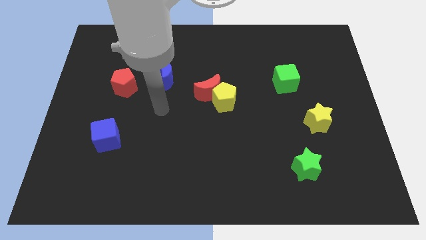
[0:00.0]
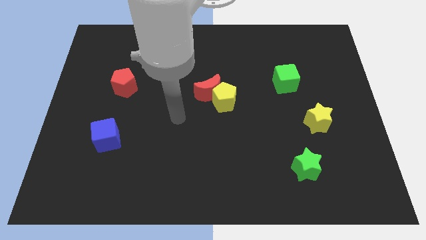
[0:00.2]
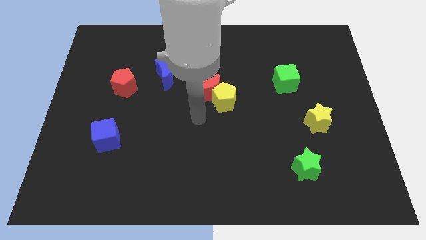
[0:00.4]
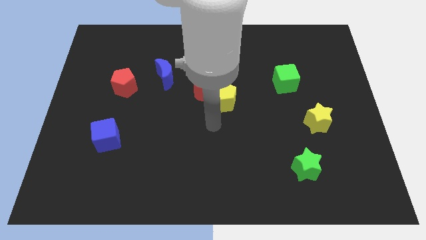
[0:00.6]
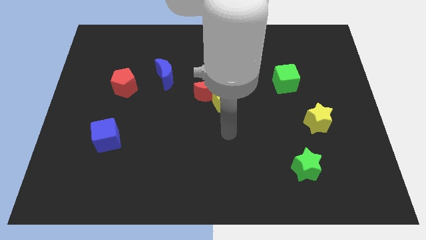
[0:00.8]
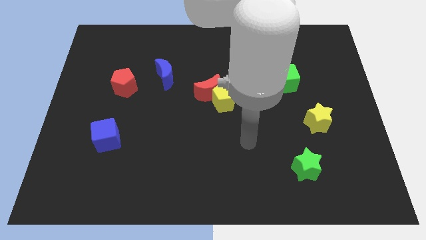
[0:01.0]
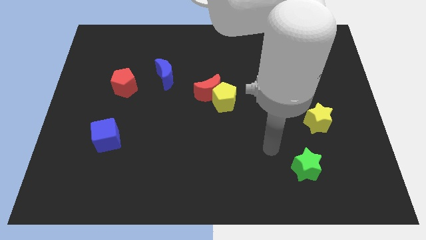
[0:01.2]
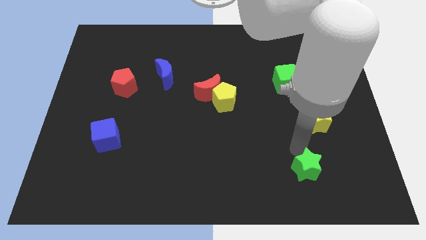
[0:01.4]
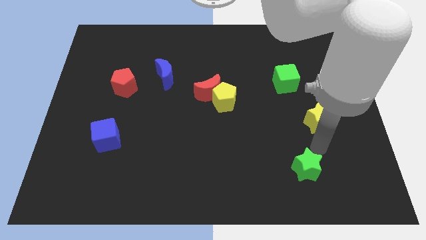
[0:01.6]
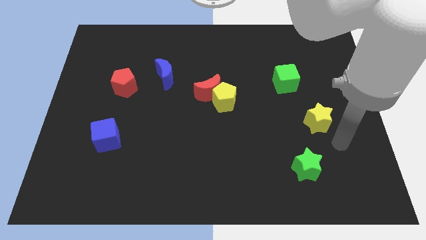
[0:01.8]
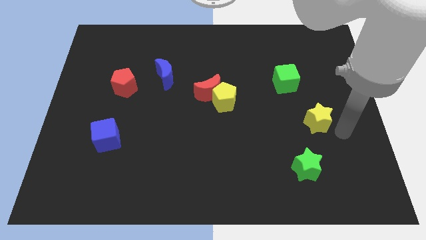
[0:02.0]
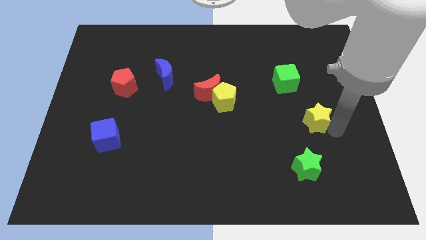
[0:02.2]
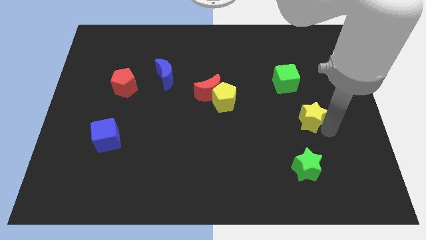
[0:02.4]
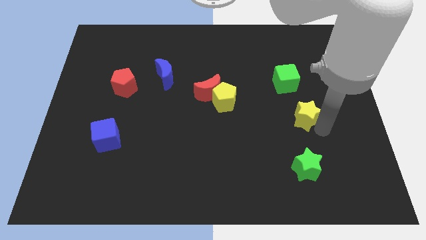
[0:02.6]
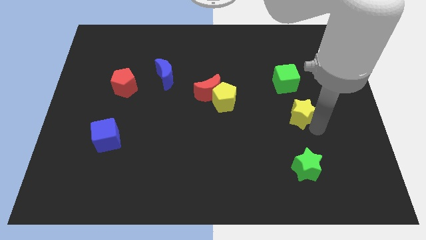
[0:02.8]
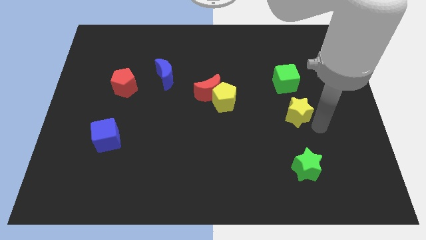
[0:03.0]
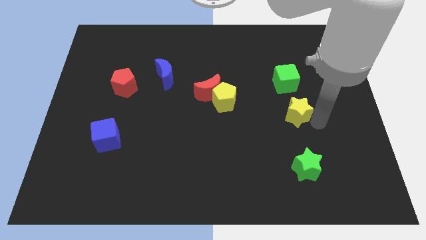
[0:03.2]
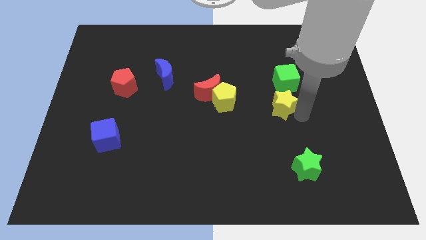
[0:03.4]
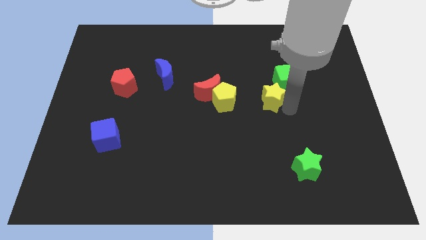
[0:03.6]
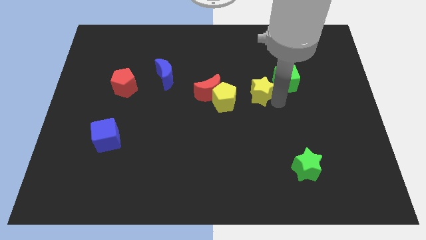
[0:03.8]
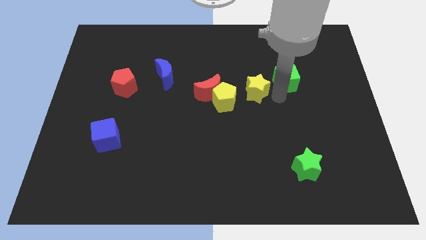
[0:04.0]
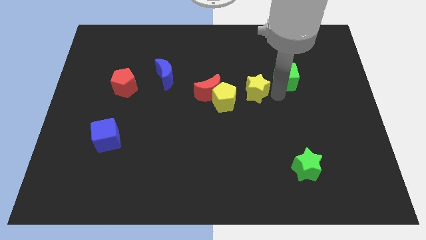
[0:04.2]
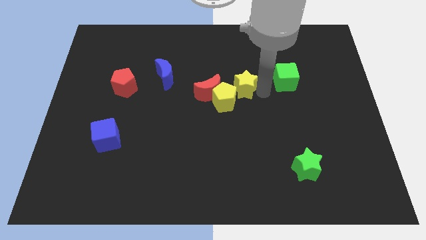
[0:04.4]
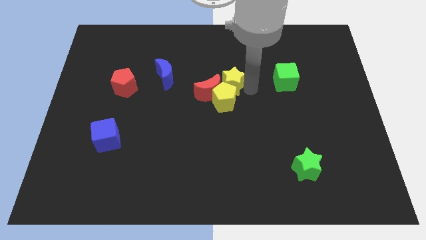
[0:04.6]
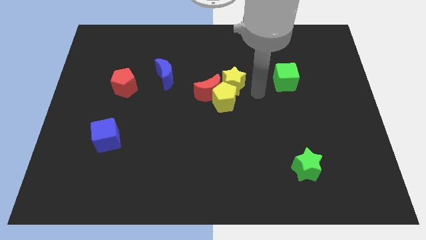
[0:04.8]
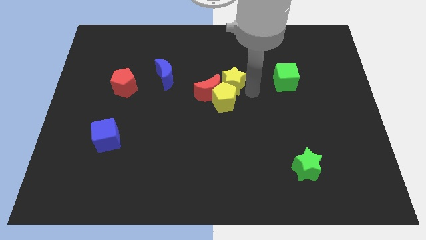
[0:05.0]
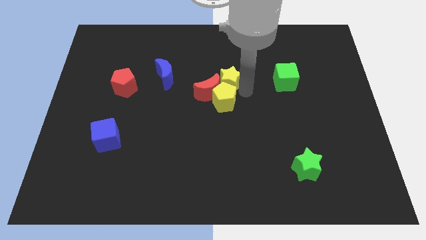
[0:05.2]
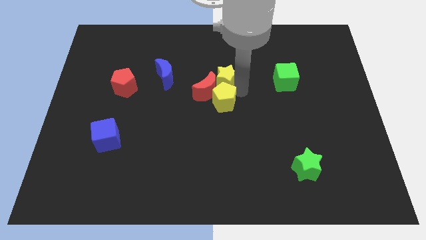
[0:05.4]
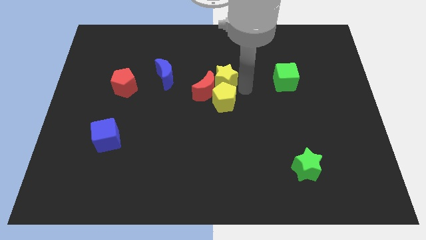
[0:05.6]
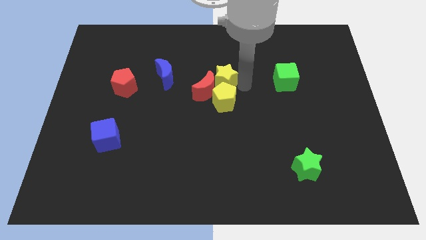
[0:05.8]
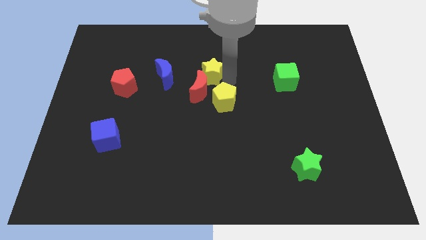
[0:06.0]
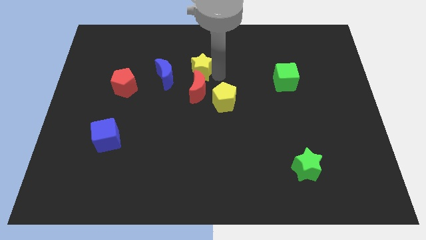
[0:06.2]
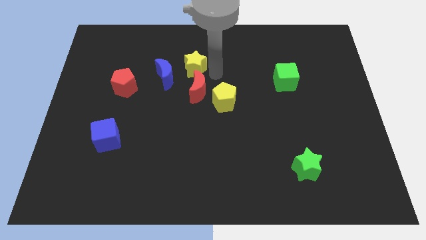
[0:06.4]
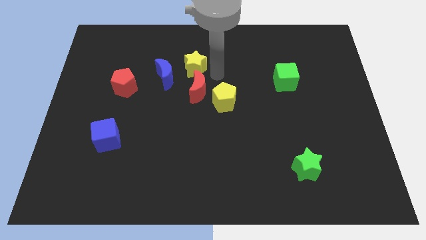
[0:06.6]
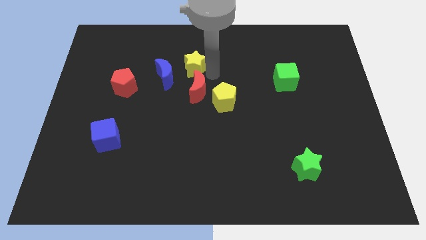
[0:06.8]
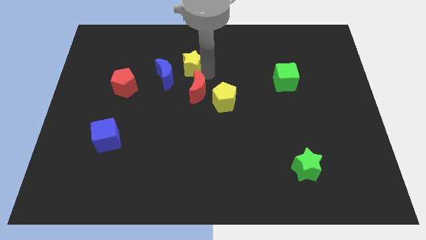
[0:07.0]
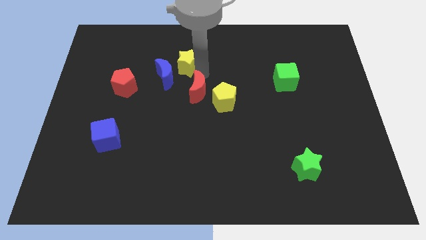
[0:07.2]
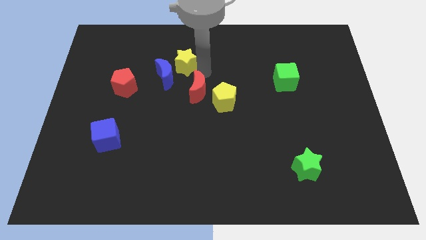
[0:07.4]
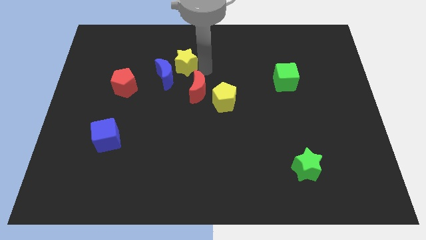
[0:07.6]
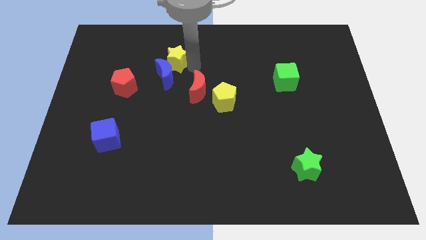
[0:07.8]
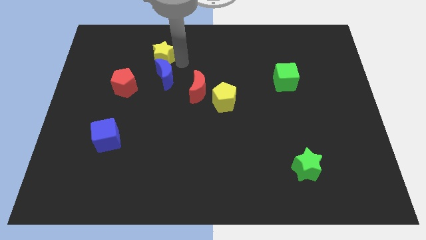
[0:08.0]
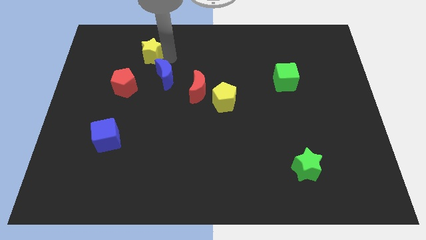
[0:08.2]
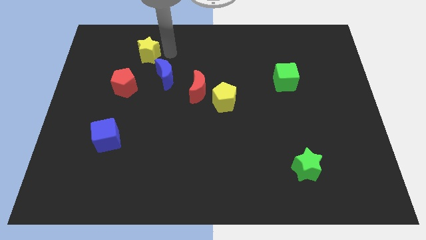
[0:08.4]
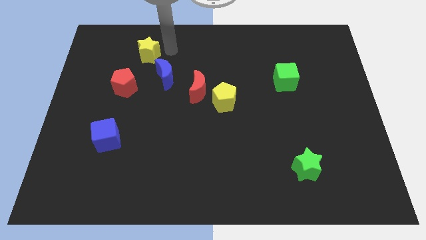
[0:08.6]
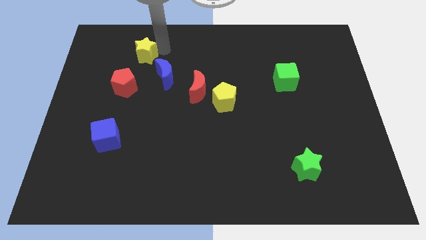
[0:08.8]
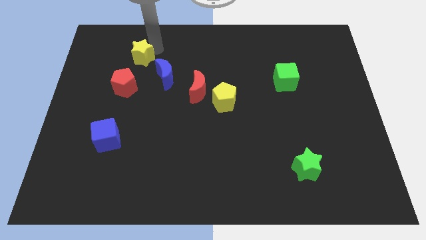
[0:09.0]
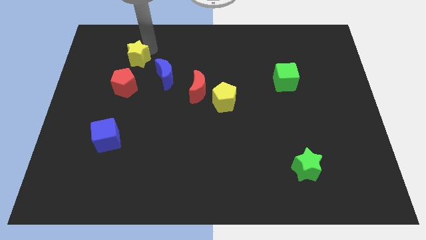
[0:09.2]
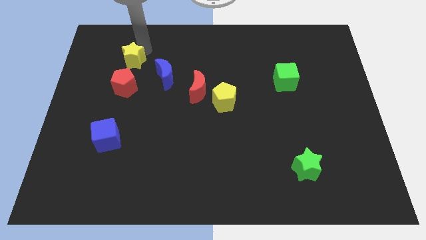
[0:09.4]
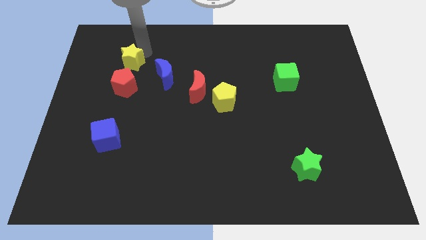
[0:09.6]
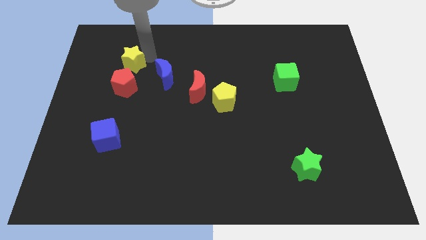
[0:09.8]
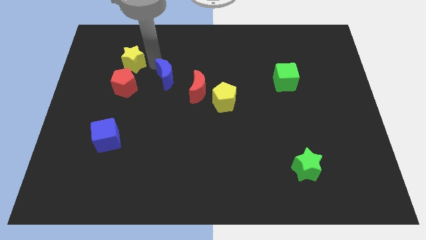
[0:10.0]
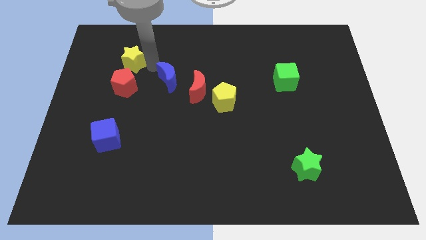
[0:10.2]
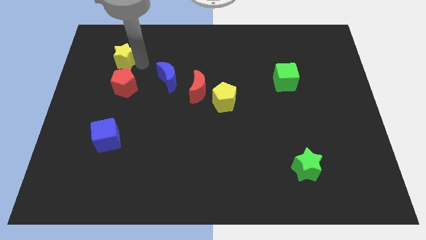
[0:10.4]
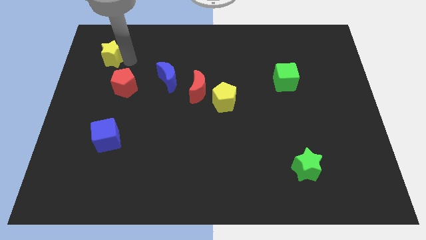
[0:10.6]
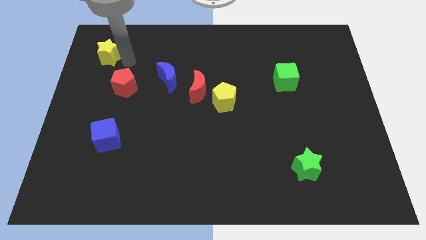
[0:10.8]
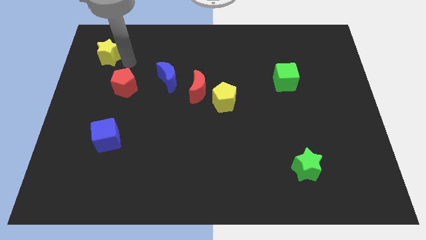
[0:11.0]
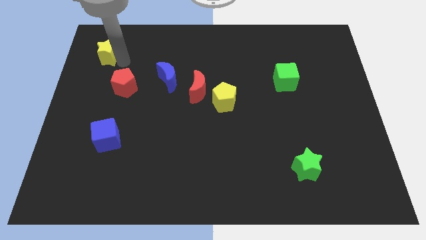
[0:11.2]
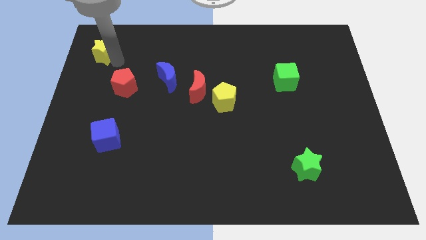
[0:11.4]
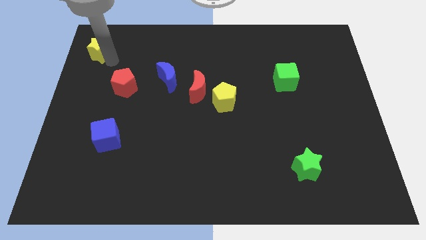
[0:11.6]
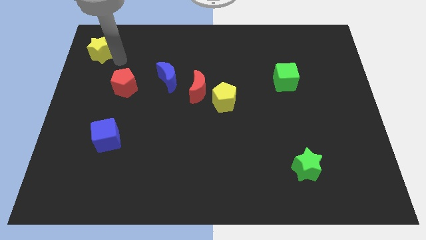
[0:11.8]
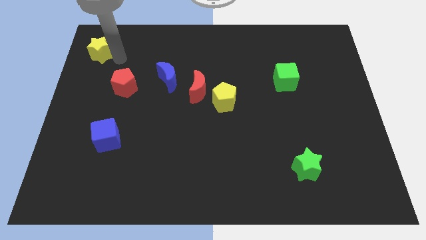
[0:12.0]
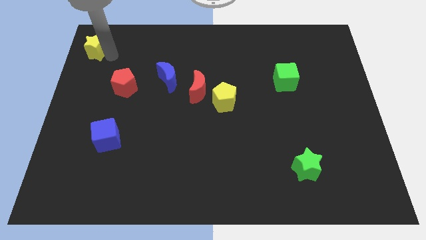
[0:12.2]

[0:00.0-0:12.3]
put the yellow star to the upper left corner
